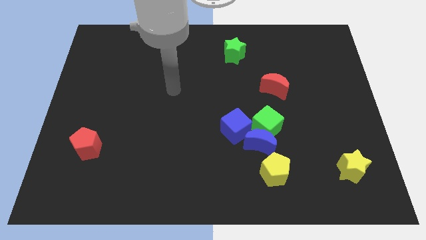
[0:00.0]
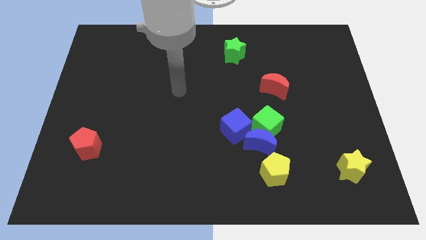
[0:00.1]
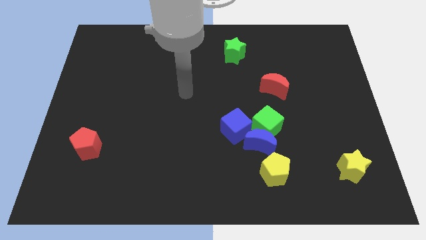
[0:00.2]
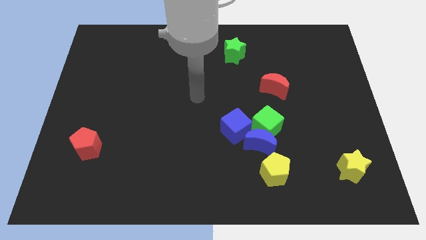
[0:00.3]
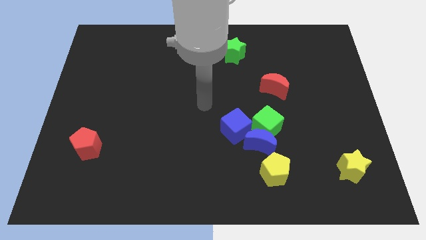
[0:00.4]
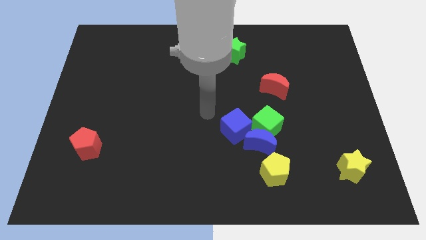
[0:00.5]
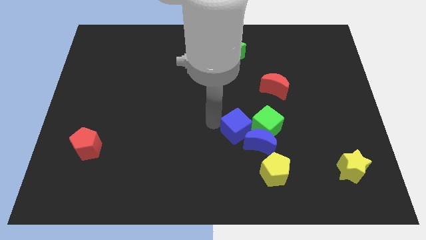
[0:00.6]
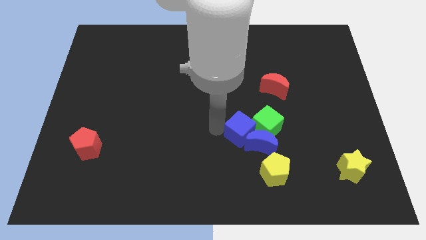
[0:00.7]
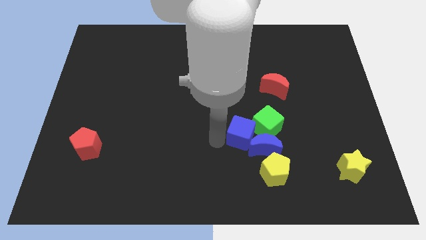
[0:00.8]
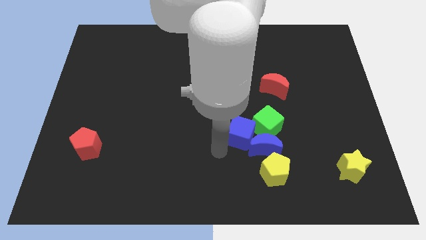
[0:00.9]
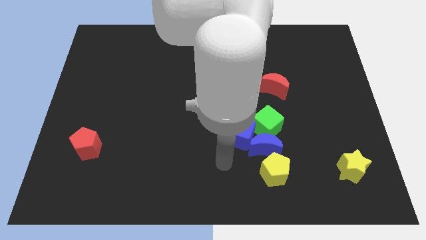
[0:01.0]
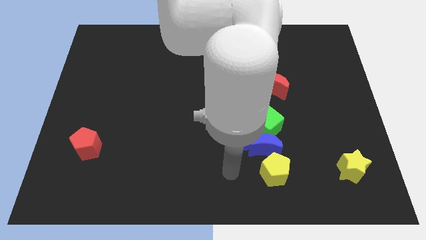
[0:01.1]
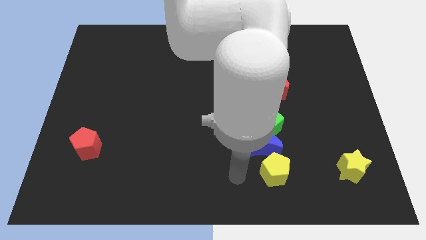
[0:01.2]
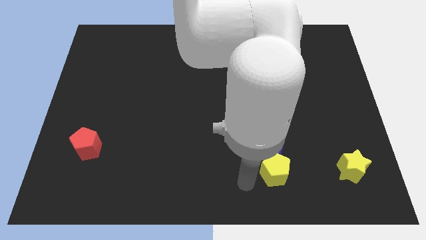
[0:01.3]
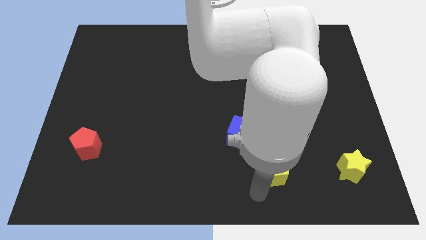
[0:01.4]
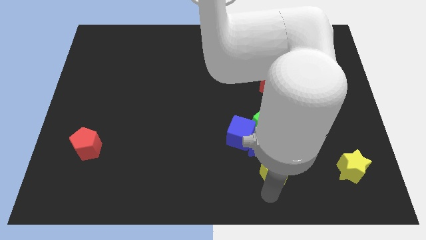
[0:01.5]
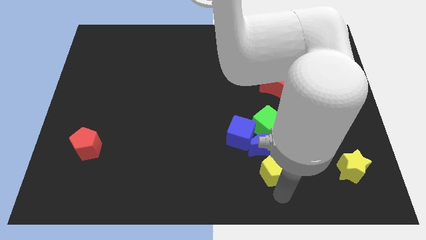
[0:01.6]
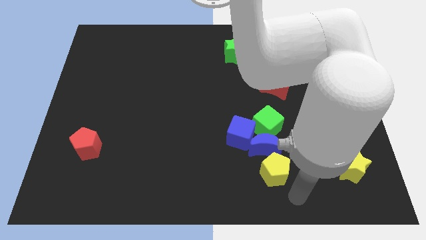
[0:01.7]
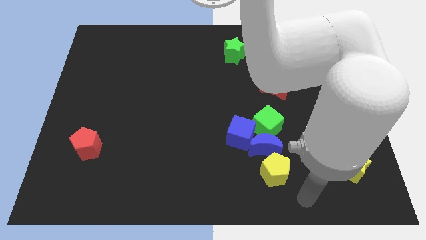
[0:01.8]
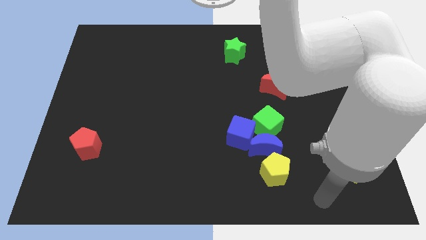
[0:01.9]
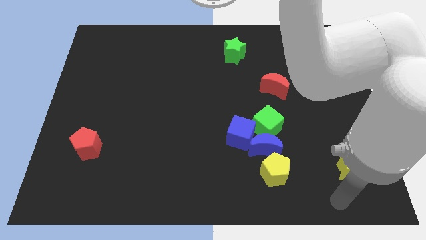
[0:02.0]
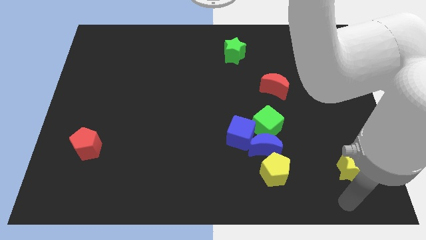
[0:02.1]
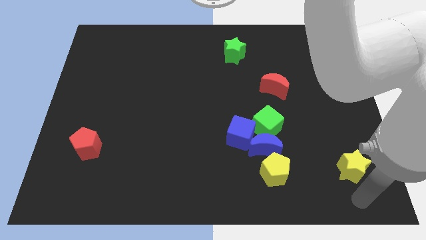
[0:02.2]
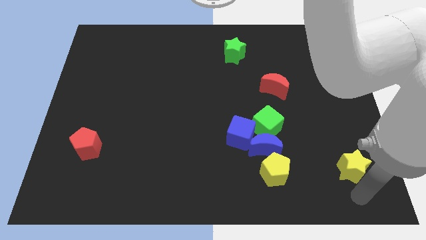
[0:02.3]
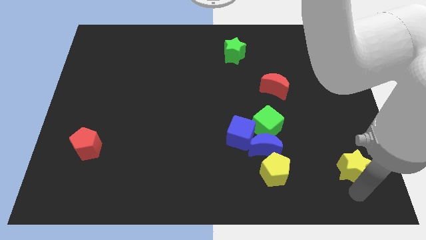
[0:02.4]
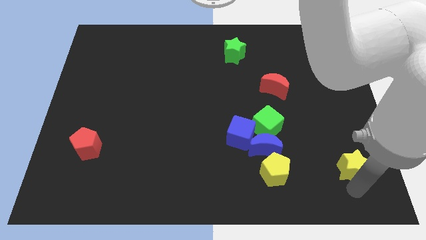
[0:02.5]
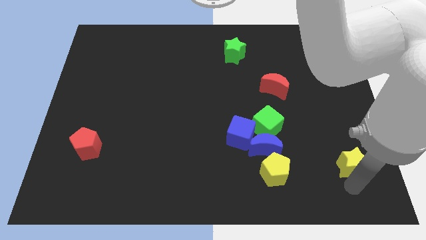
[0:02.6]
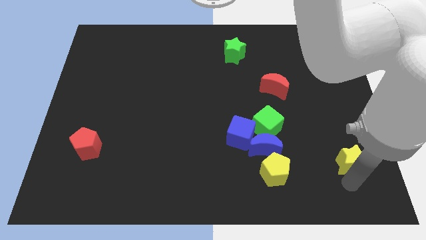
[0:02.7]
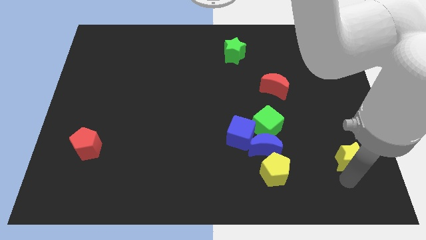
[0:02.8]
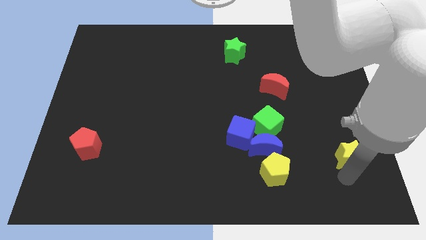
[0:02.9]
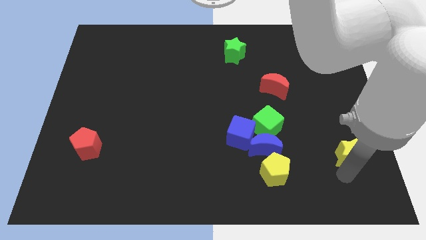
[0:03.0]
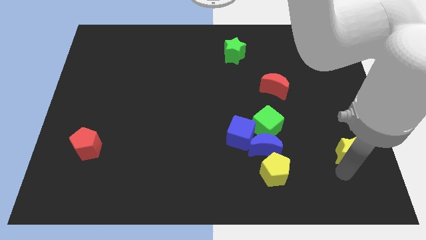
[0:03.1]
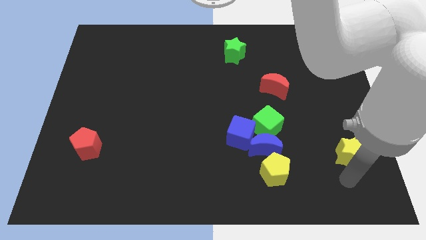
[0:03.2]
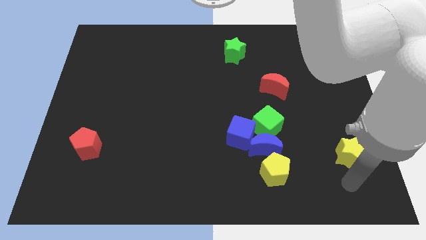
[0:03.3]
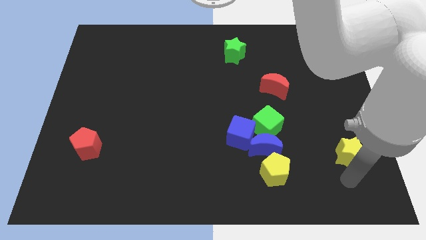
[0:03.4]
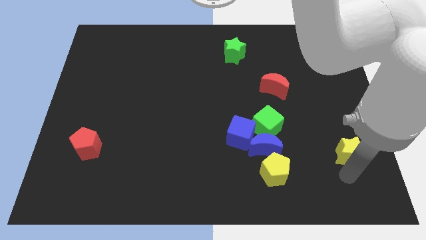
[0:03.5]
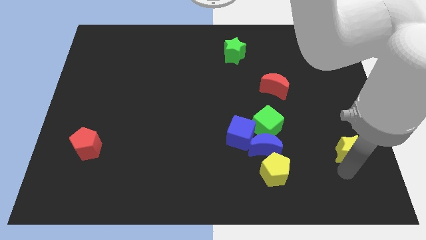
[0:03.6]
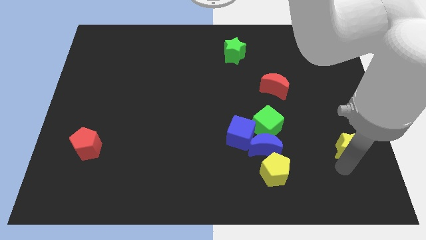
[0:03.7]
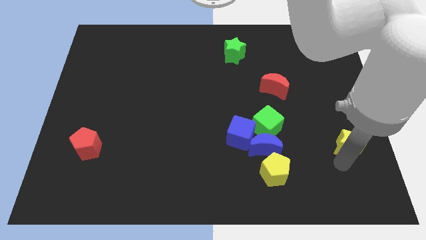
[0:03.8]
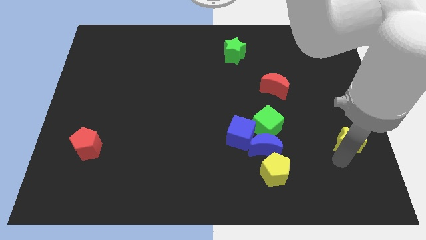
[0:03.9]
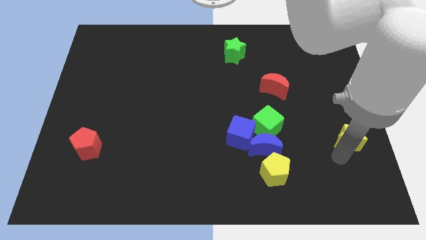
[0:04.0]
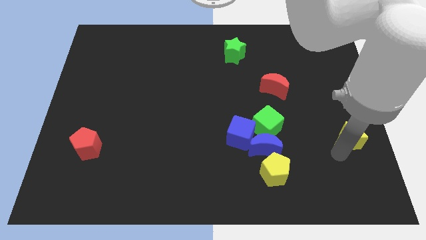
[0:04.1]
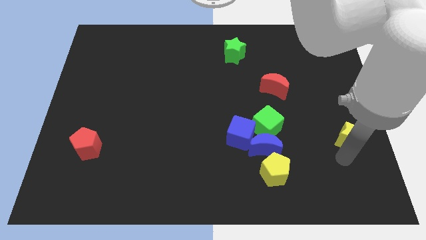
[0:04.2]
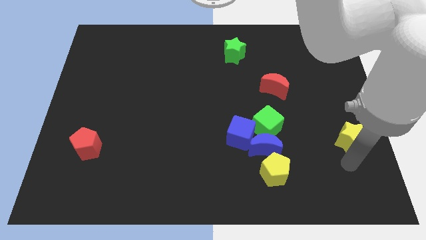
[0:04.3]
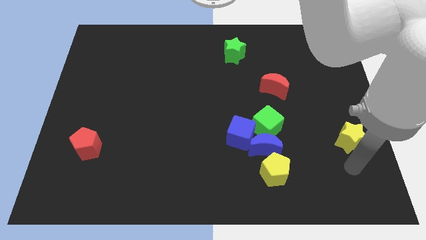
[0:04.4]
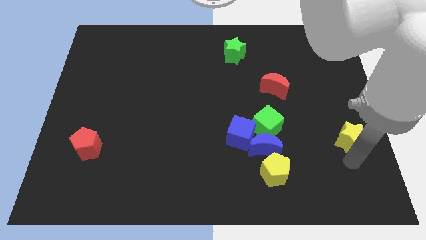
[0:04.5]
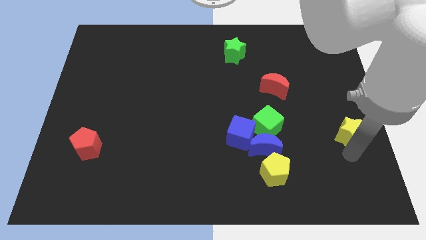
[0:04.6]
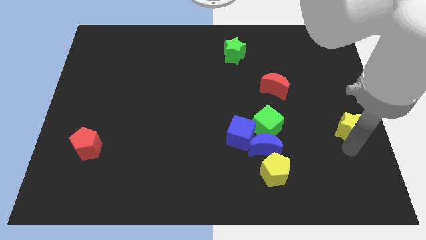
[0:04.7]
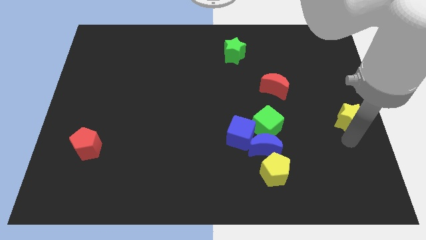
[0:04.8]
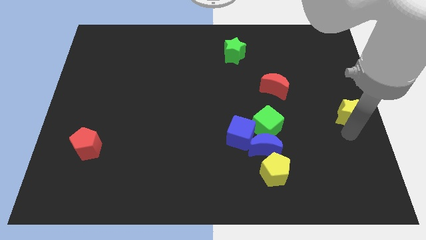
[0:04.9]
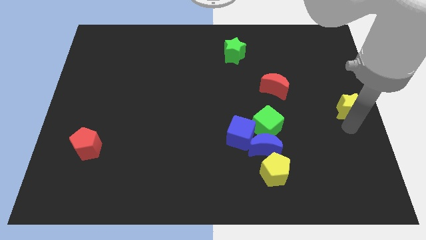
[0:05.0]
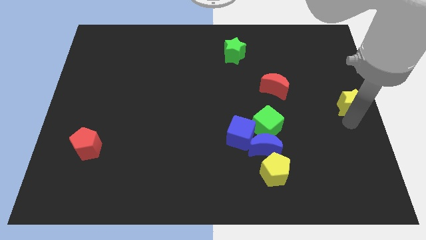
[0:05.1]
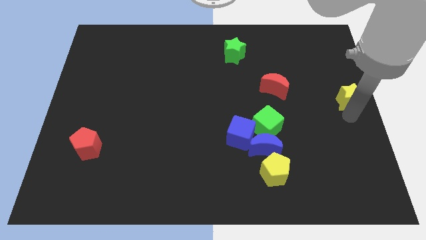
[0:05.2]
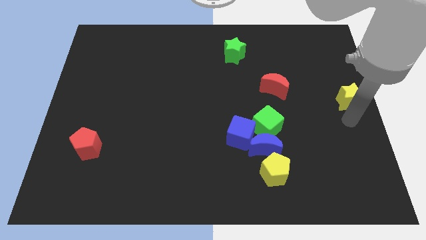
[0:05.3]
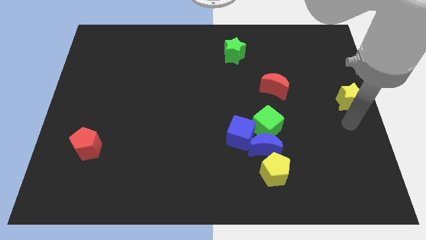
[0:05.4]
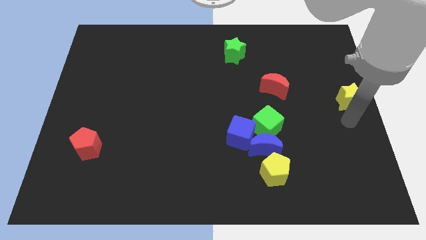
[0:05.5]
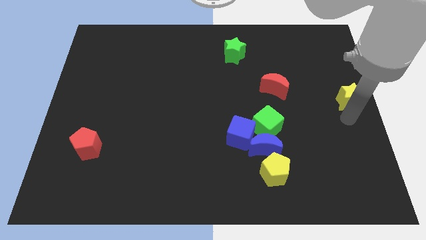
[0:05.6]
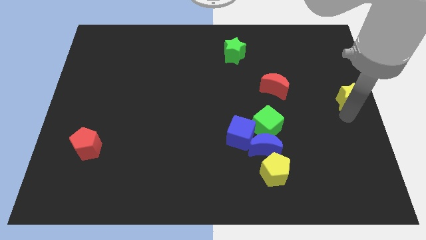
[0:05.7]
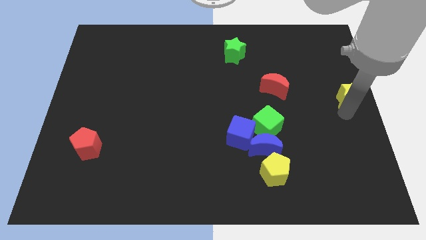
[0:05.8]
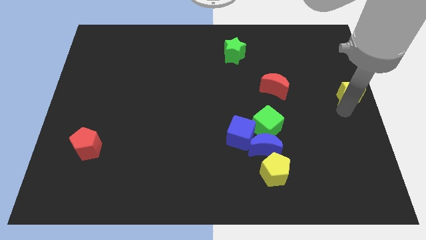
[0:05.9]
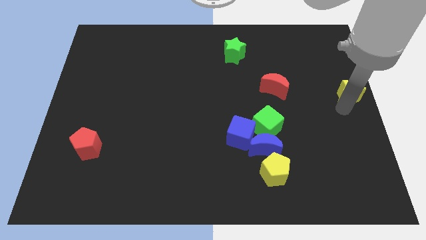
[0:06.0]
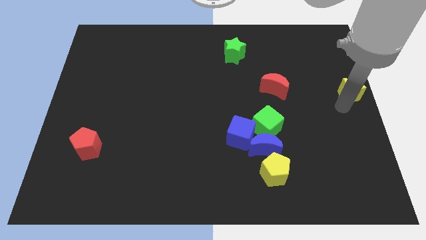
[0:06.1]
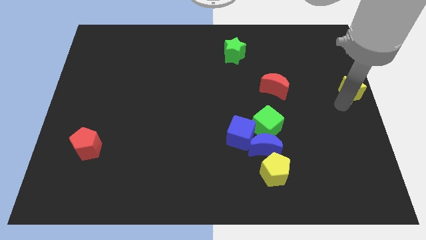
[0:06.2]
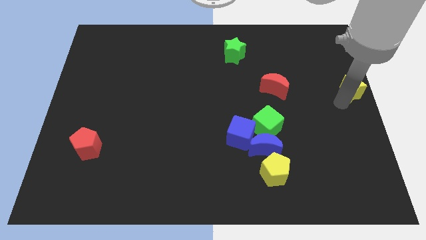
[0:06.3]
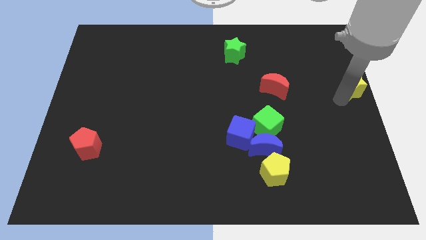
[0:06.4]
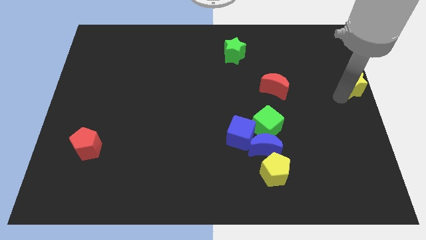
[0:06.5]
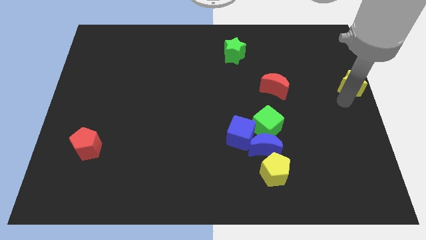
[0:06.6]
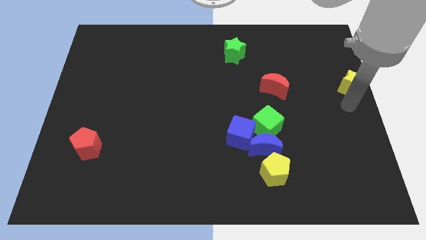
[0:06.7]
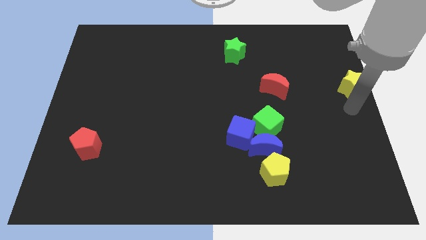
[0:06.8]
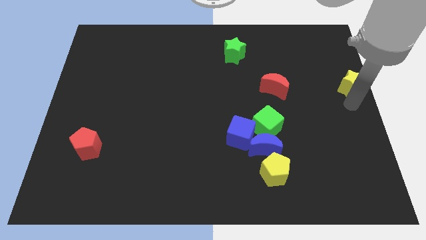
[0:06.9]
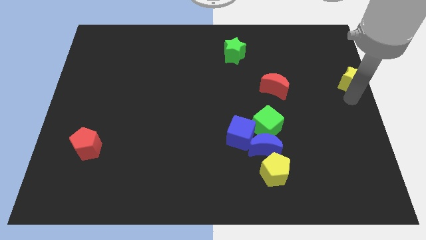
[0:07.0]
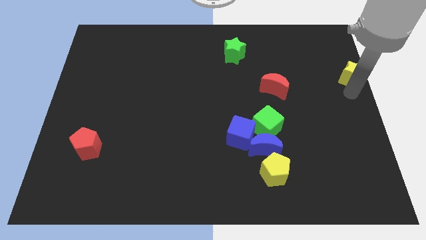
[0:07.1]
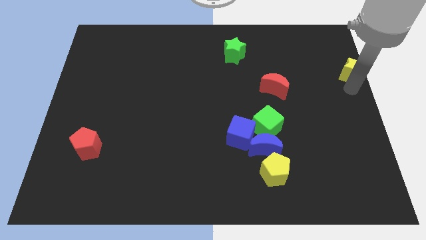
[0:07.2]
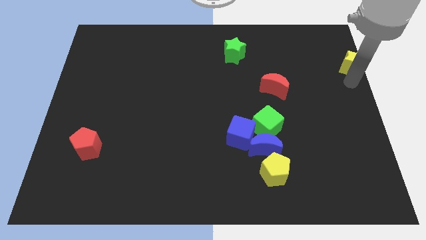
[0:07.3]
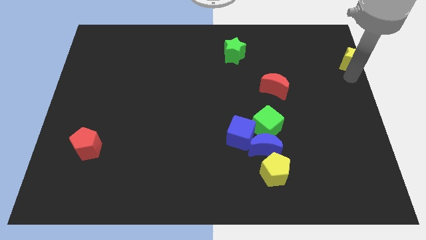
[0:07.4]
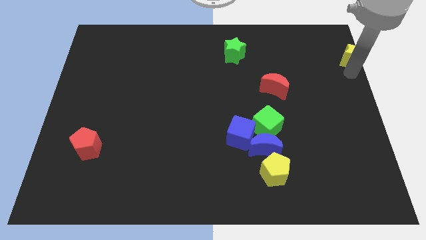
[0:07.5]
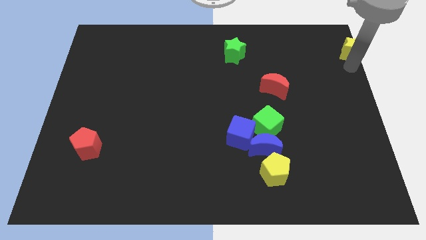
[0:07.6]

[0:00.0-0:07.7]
push the yellow star to the top right of the board

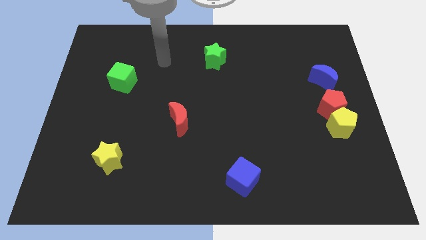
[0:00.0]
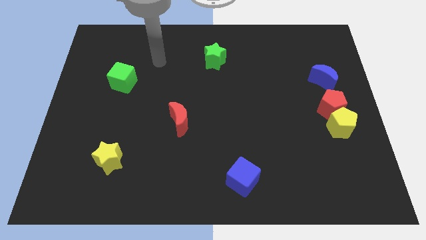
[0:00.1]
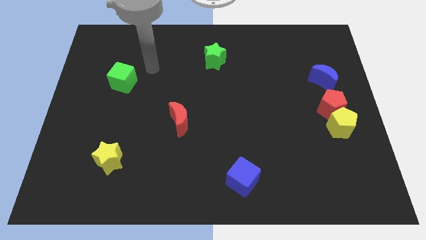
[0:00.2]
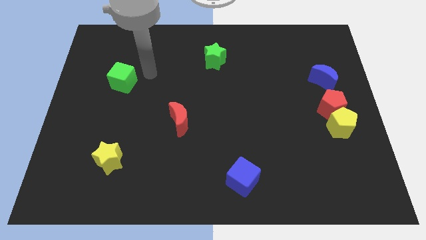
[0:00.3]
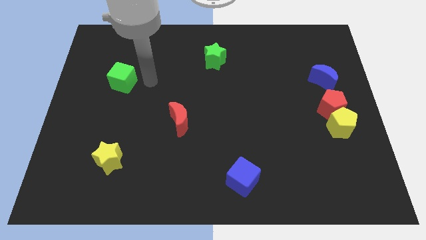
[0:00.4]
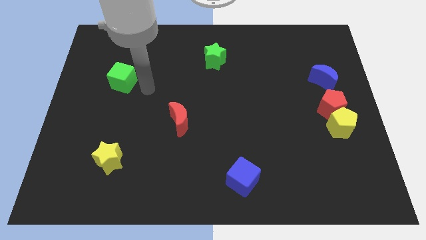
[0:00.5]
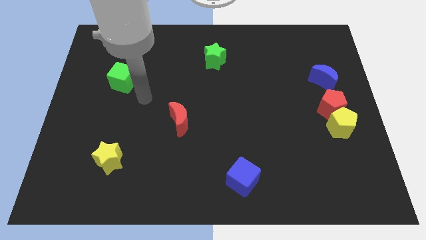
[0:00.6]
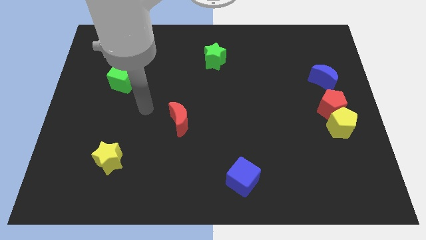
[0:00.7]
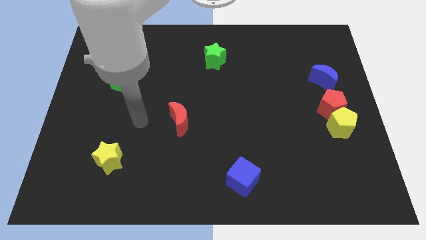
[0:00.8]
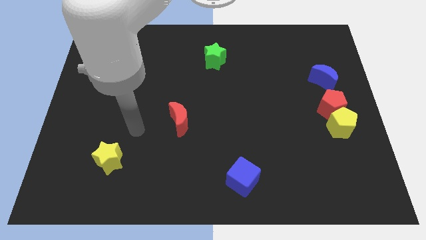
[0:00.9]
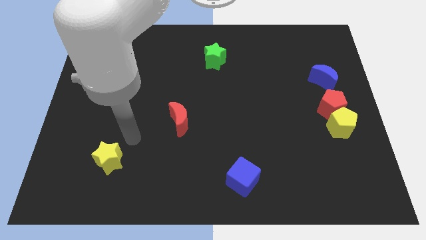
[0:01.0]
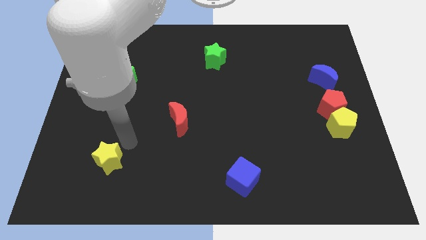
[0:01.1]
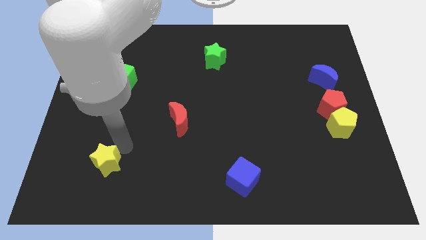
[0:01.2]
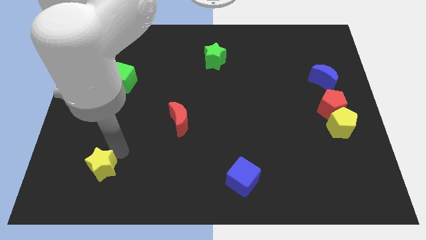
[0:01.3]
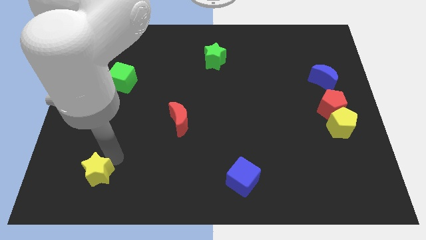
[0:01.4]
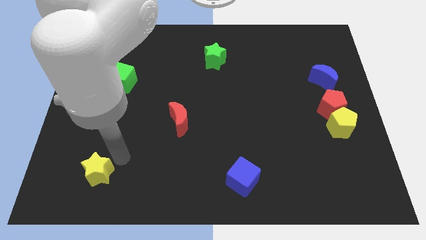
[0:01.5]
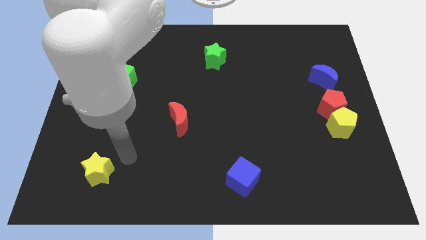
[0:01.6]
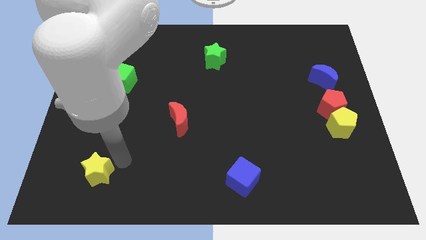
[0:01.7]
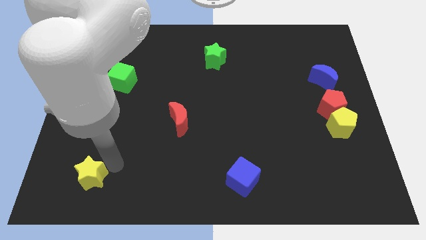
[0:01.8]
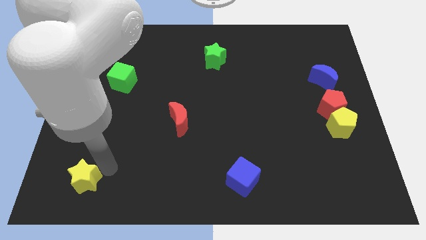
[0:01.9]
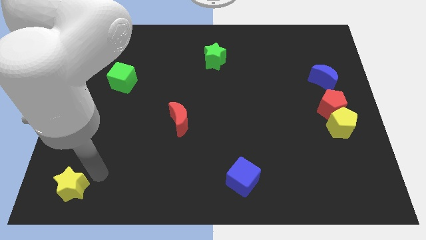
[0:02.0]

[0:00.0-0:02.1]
move the yellow star to the lower left corner
